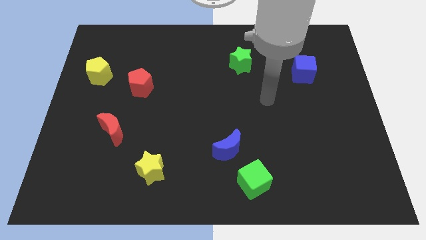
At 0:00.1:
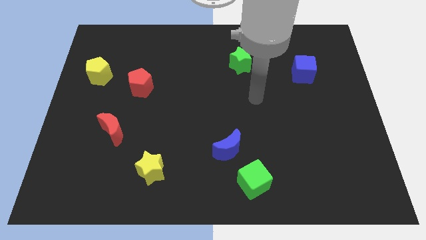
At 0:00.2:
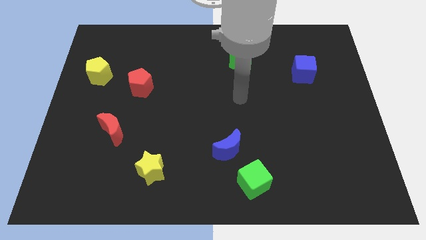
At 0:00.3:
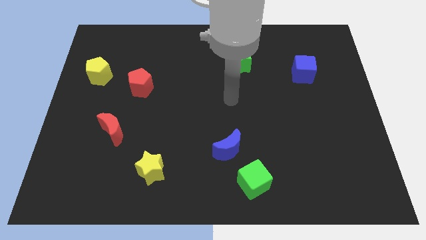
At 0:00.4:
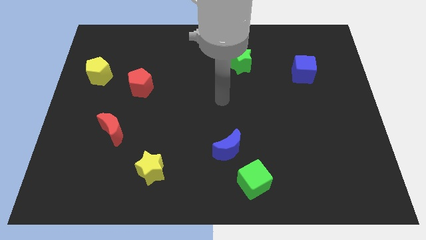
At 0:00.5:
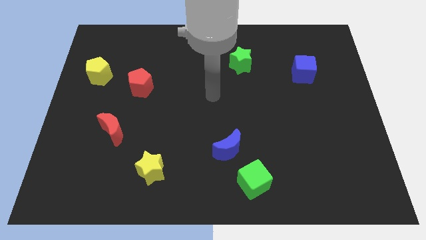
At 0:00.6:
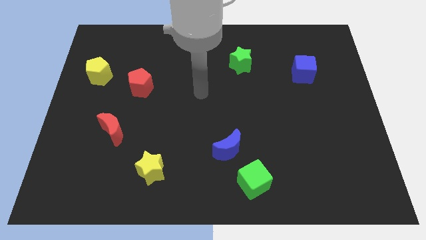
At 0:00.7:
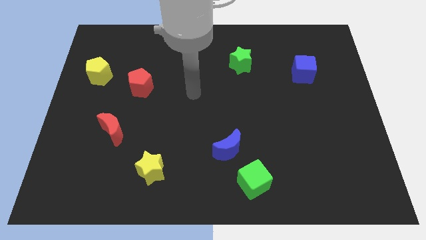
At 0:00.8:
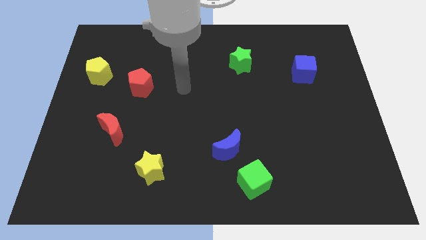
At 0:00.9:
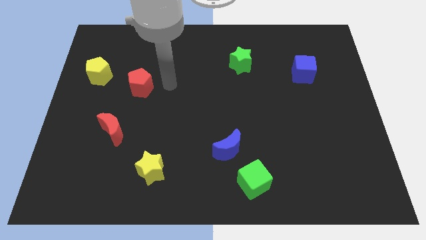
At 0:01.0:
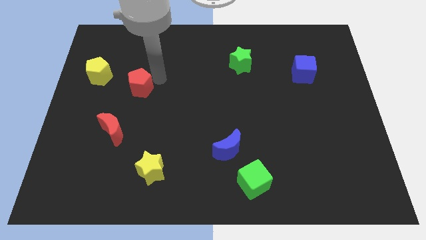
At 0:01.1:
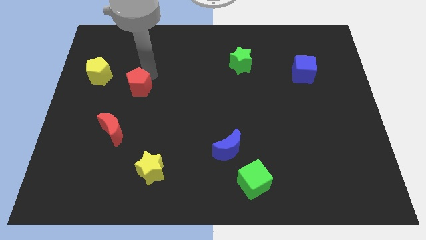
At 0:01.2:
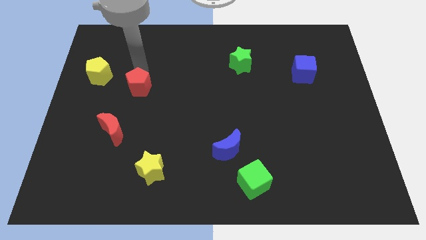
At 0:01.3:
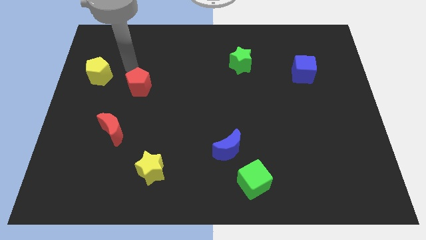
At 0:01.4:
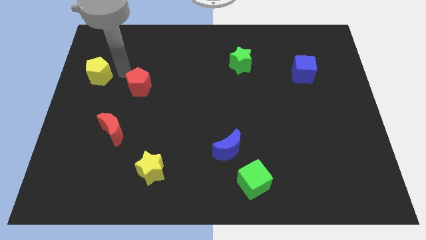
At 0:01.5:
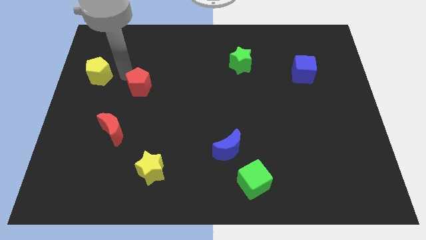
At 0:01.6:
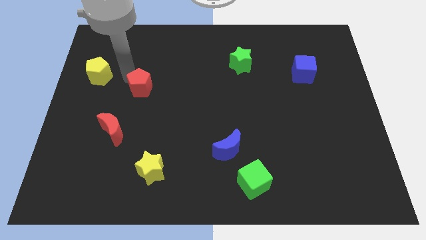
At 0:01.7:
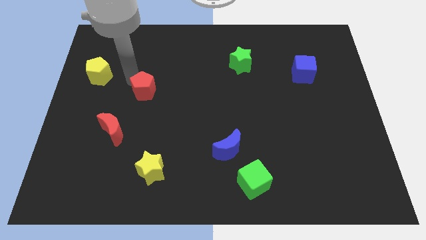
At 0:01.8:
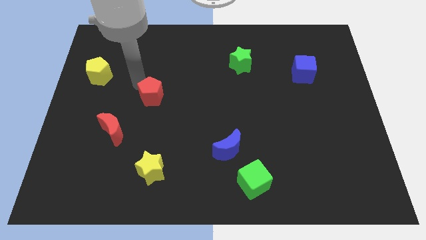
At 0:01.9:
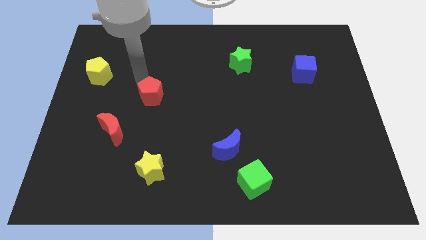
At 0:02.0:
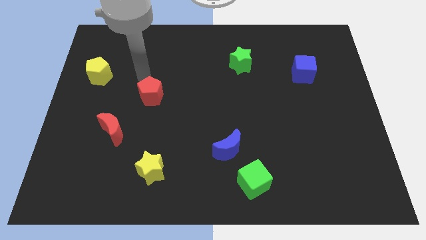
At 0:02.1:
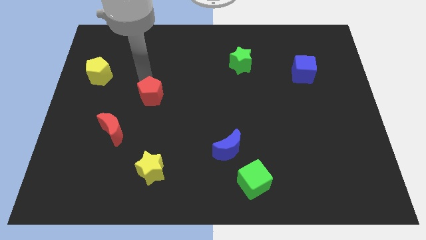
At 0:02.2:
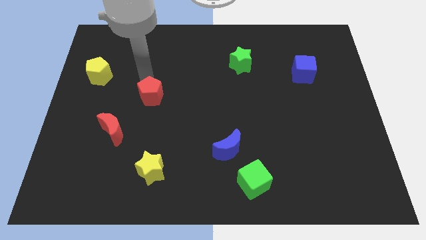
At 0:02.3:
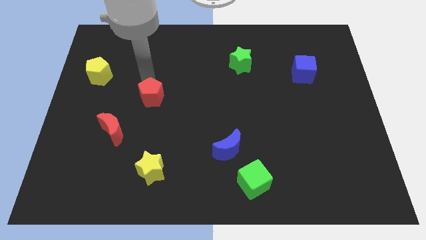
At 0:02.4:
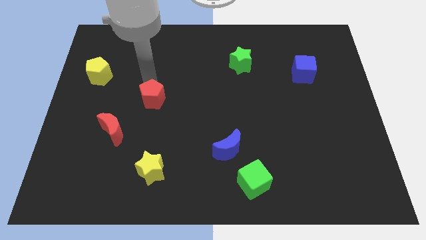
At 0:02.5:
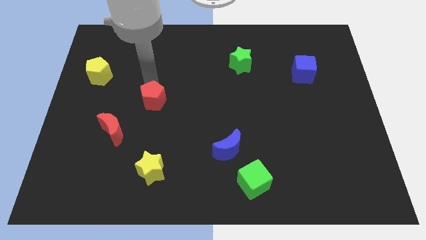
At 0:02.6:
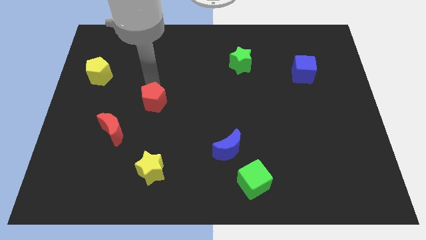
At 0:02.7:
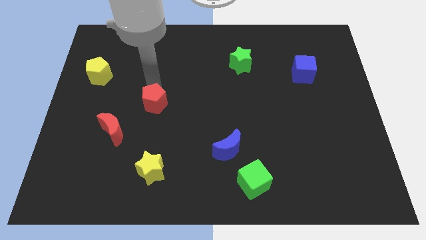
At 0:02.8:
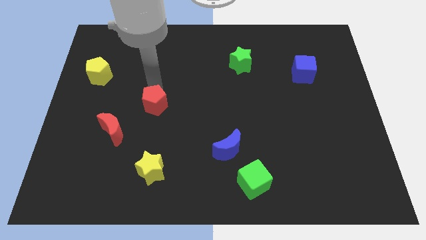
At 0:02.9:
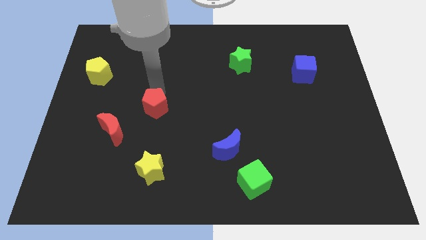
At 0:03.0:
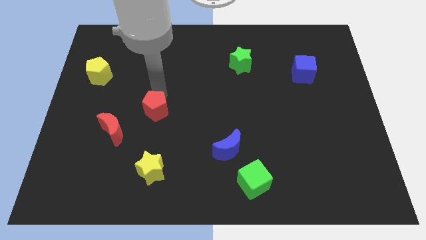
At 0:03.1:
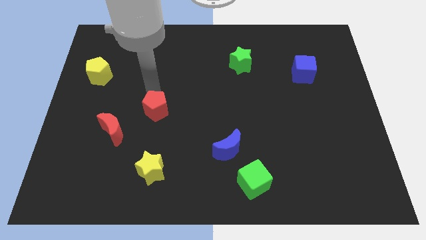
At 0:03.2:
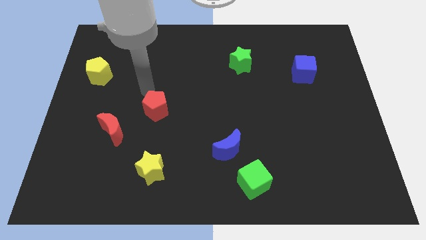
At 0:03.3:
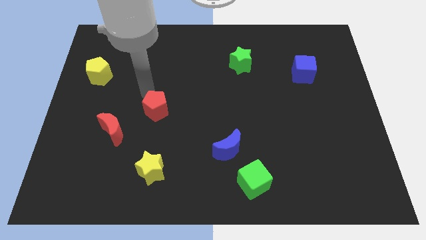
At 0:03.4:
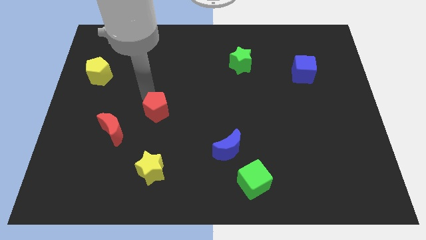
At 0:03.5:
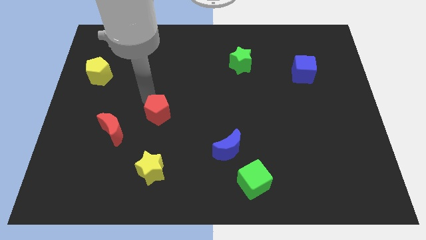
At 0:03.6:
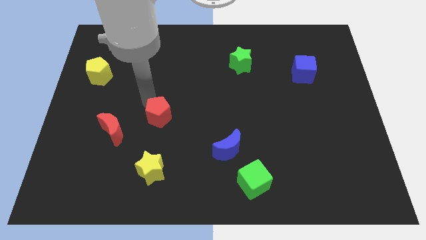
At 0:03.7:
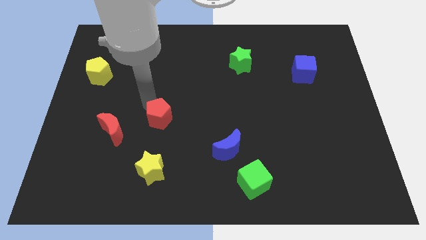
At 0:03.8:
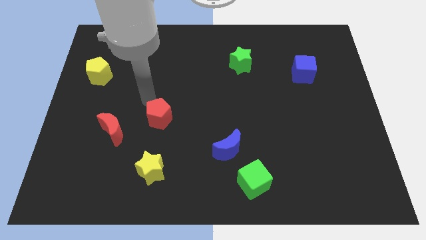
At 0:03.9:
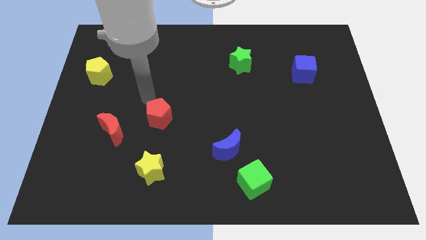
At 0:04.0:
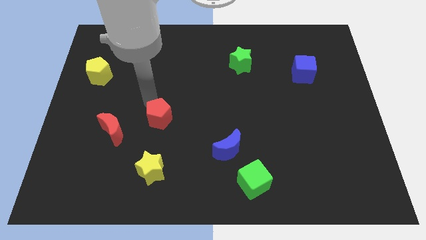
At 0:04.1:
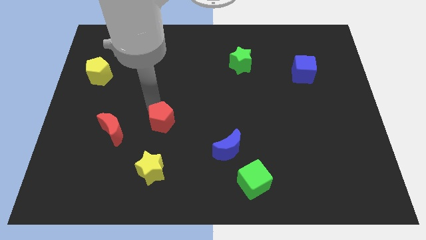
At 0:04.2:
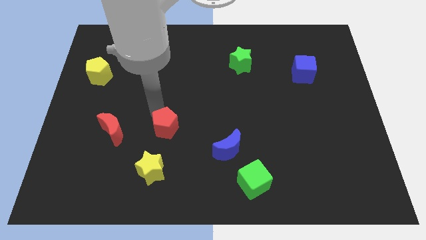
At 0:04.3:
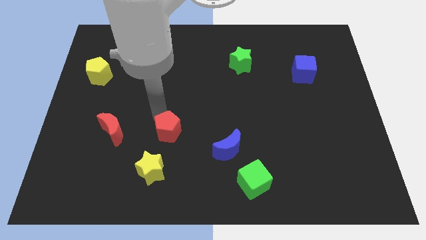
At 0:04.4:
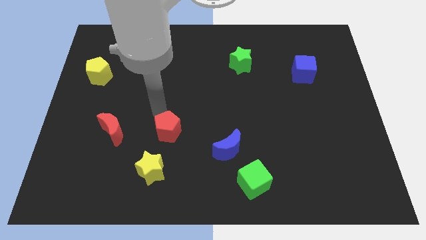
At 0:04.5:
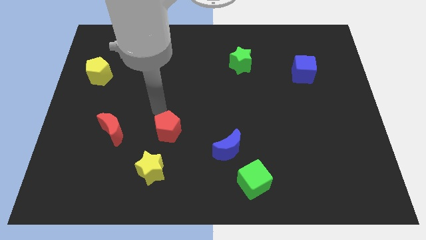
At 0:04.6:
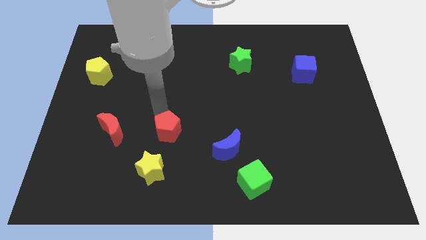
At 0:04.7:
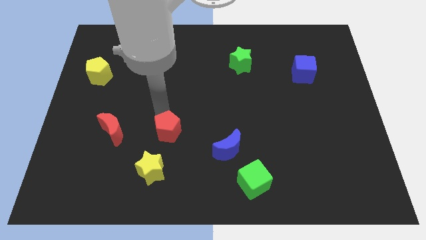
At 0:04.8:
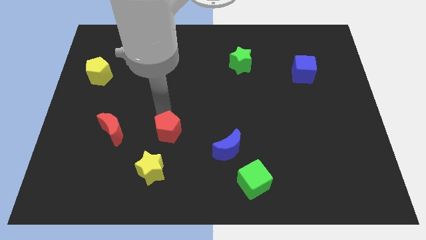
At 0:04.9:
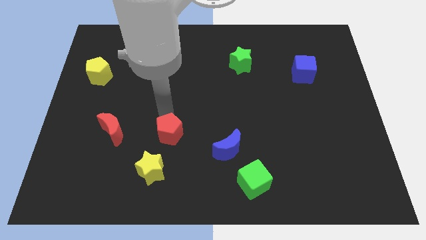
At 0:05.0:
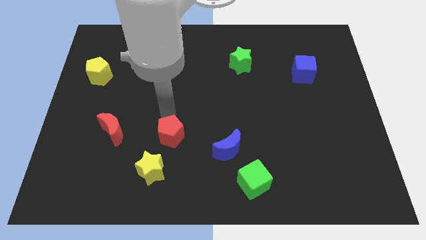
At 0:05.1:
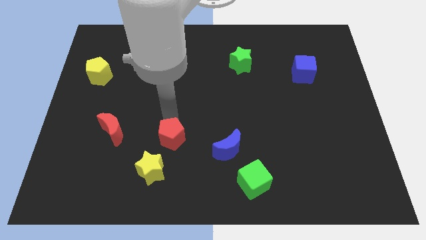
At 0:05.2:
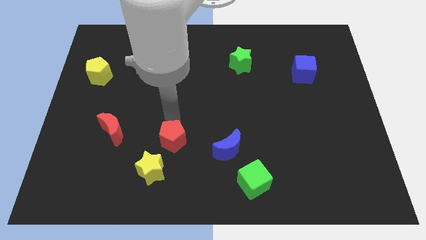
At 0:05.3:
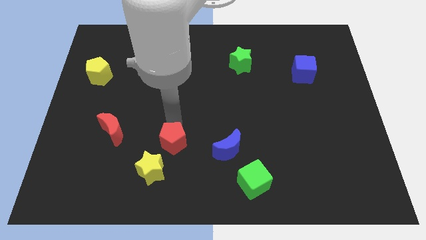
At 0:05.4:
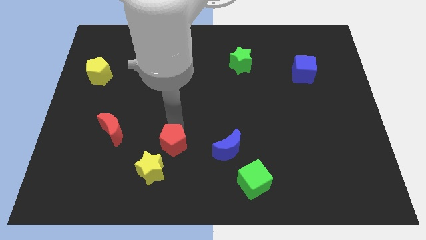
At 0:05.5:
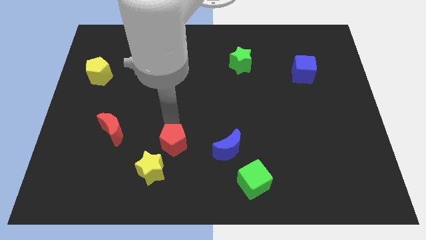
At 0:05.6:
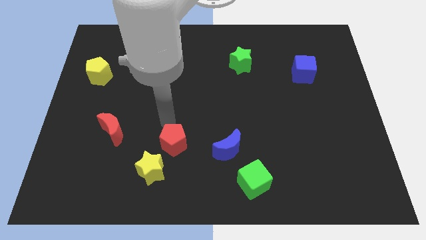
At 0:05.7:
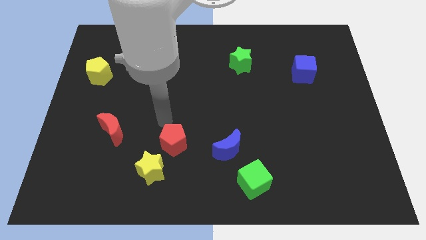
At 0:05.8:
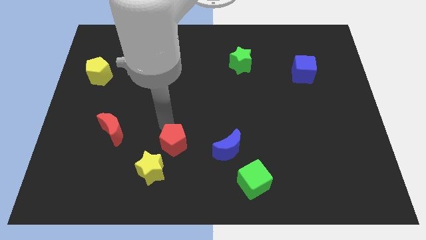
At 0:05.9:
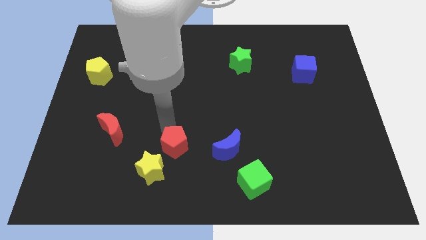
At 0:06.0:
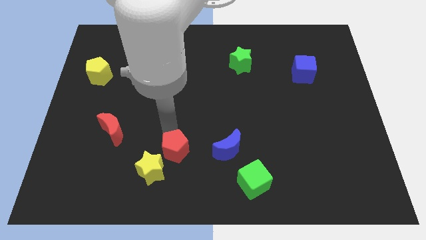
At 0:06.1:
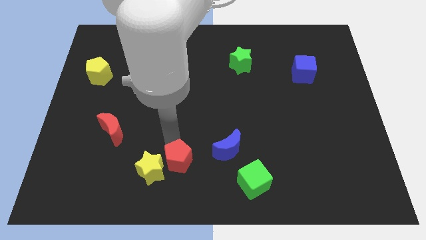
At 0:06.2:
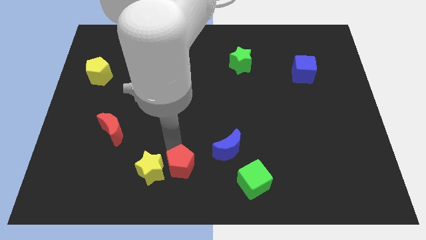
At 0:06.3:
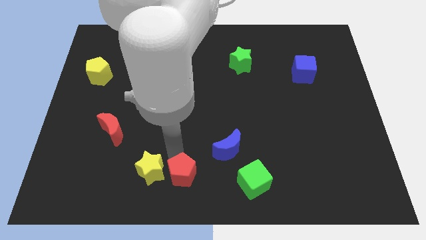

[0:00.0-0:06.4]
put the red pentagon to the left of the green cube

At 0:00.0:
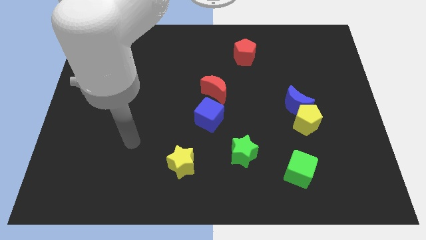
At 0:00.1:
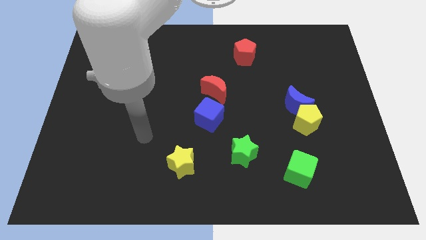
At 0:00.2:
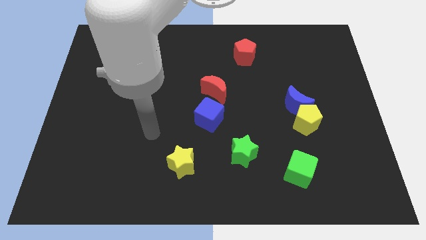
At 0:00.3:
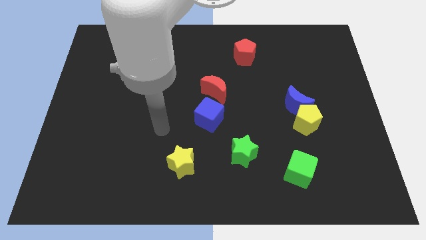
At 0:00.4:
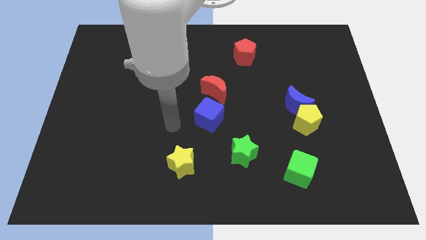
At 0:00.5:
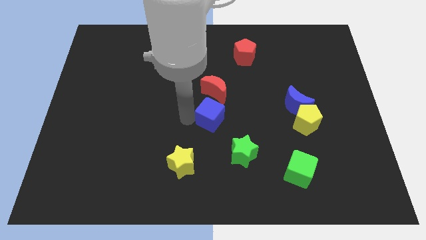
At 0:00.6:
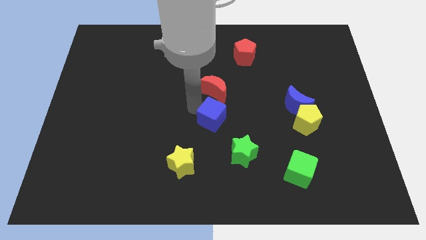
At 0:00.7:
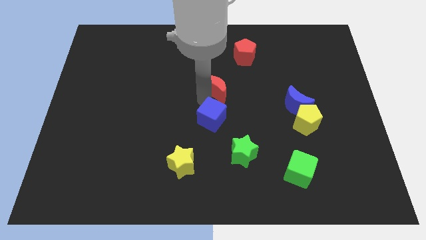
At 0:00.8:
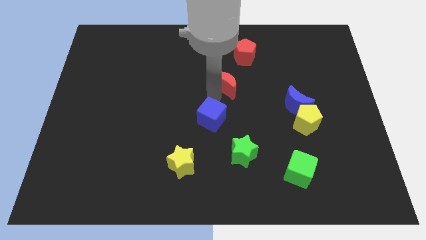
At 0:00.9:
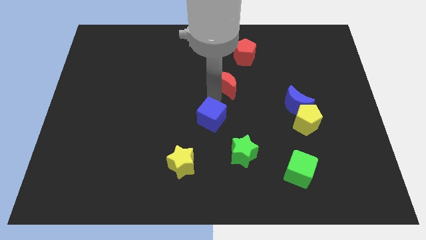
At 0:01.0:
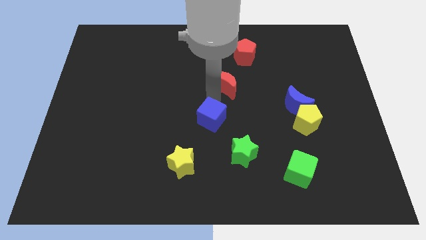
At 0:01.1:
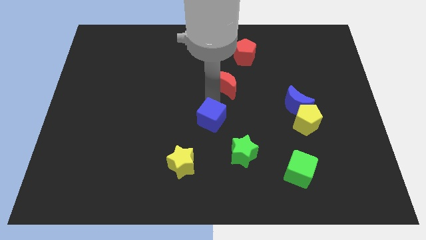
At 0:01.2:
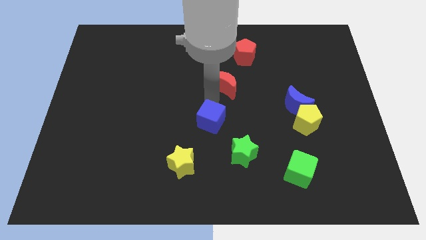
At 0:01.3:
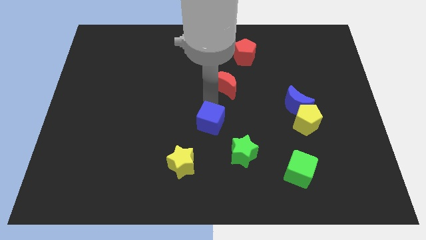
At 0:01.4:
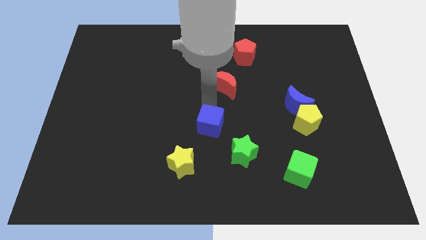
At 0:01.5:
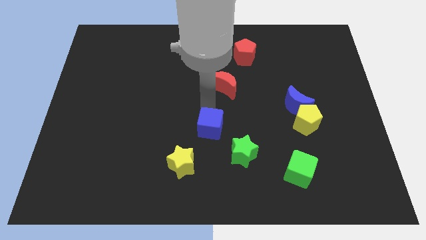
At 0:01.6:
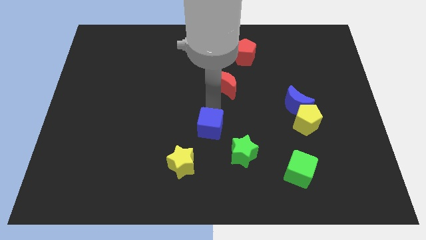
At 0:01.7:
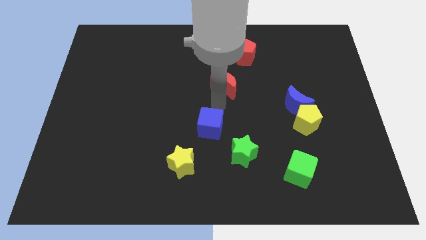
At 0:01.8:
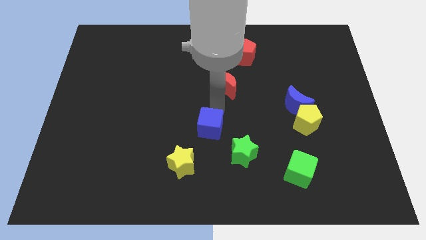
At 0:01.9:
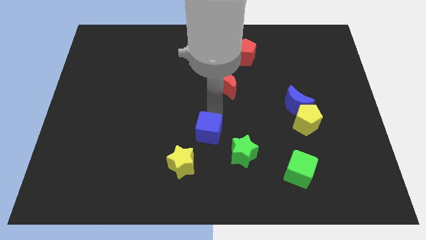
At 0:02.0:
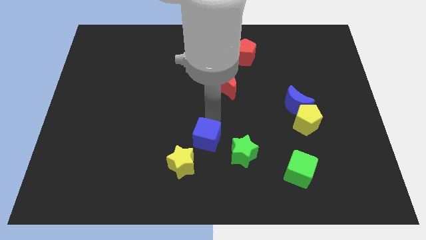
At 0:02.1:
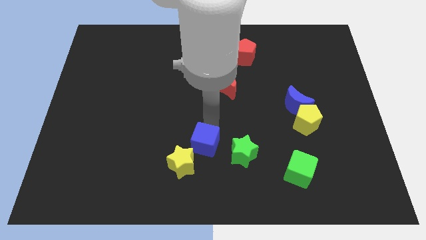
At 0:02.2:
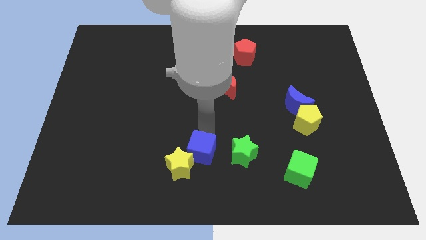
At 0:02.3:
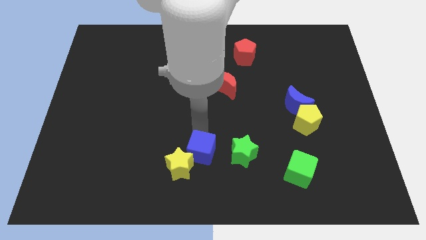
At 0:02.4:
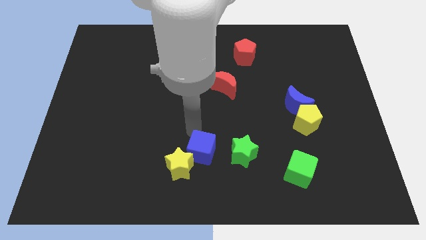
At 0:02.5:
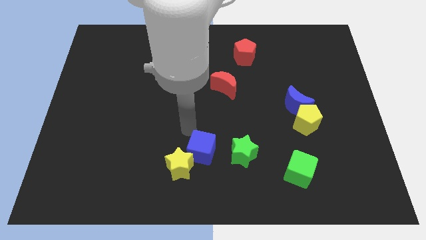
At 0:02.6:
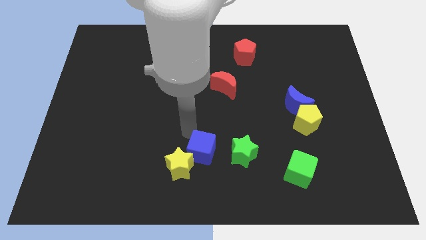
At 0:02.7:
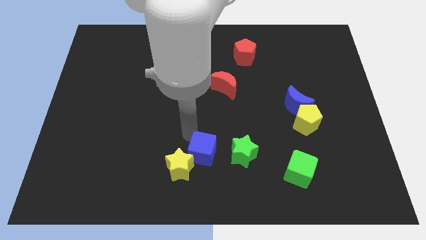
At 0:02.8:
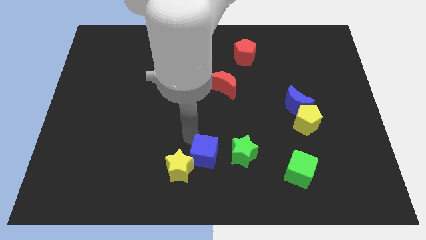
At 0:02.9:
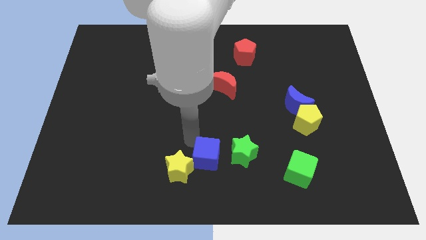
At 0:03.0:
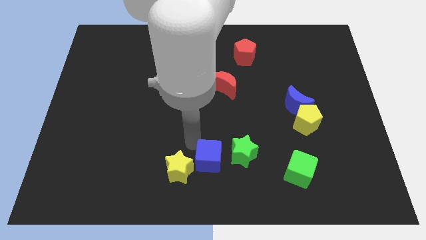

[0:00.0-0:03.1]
push the blue cube to the bottom left of the green star
